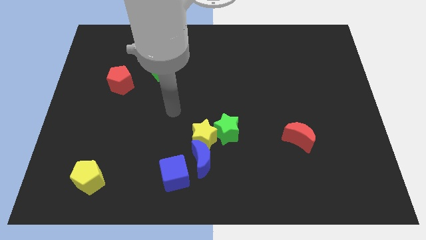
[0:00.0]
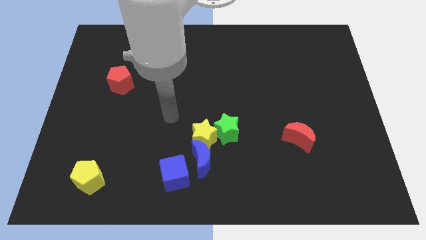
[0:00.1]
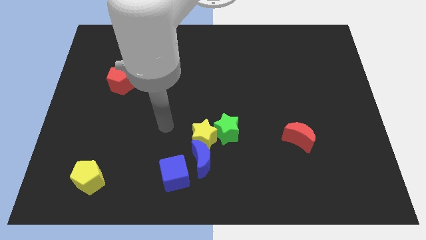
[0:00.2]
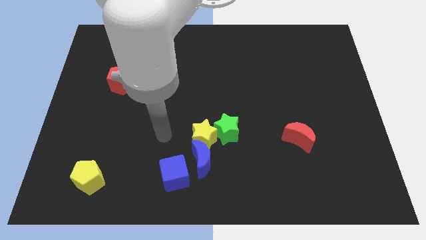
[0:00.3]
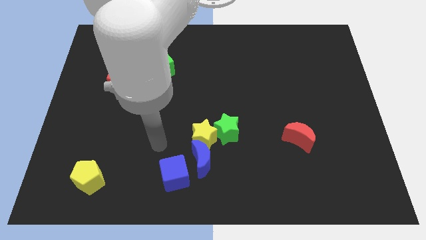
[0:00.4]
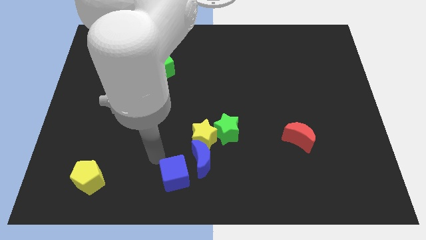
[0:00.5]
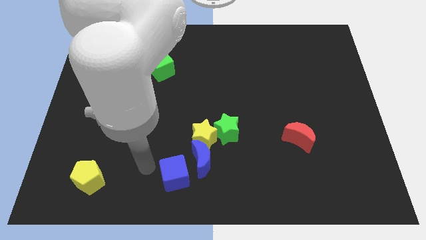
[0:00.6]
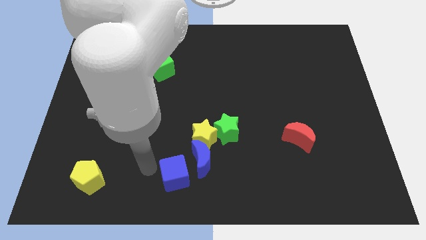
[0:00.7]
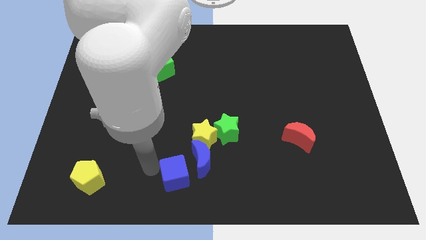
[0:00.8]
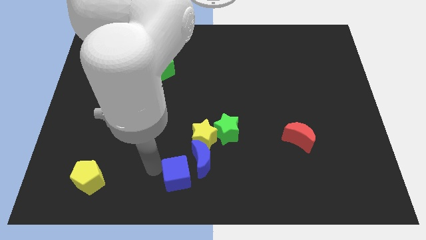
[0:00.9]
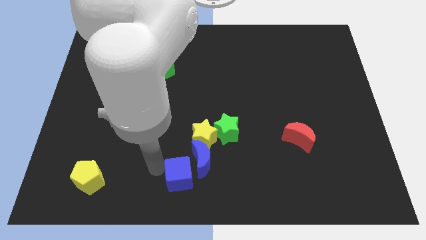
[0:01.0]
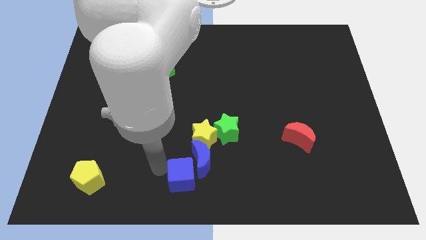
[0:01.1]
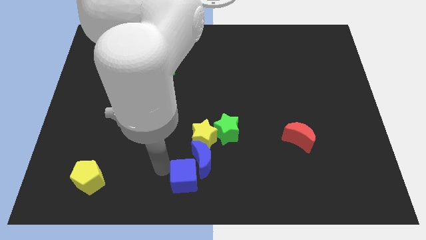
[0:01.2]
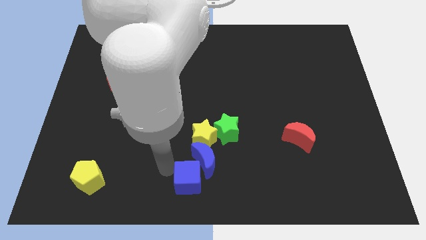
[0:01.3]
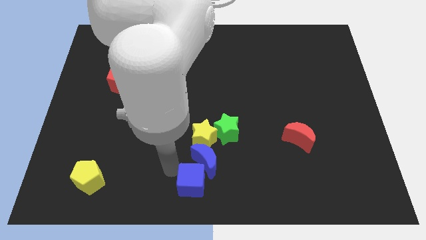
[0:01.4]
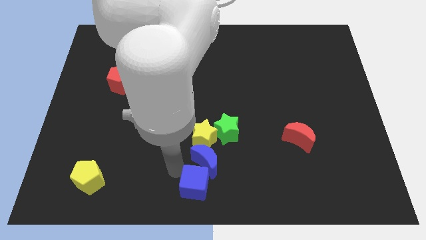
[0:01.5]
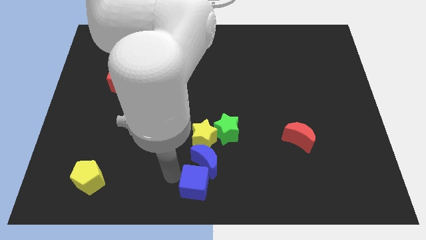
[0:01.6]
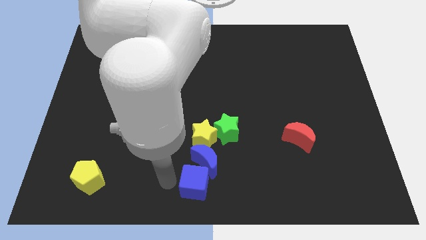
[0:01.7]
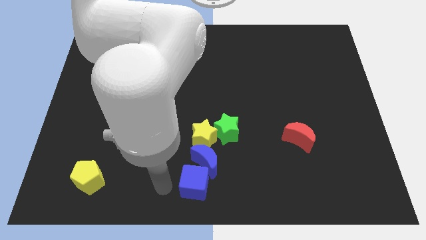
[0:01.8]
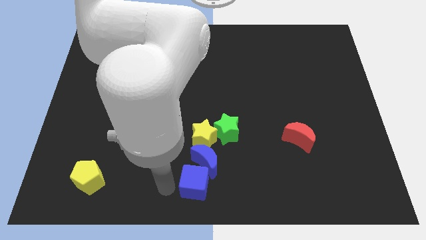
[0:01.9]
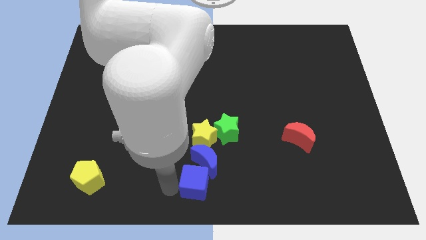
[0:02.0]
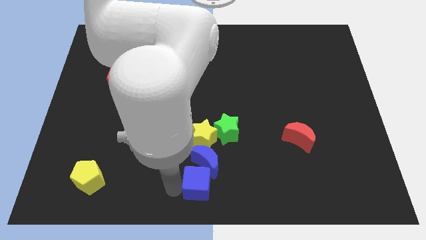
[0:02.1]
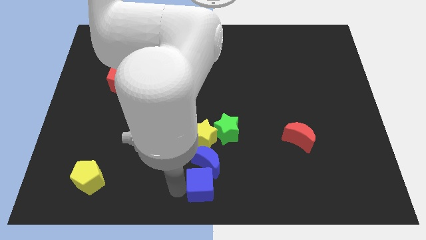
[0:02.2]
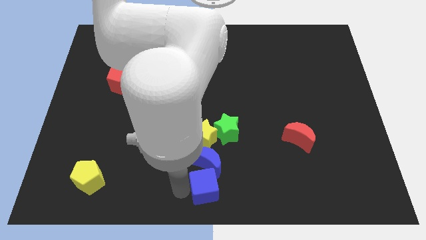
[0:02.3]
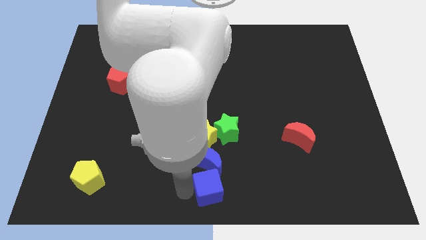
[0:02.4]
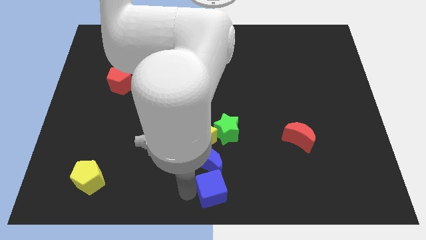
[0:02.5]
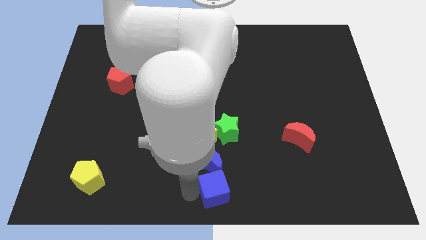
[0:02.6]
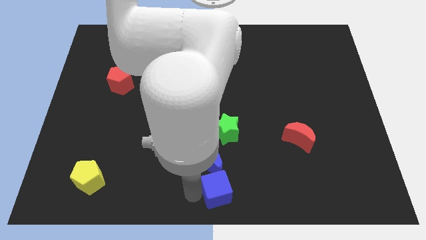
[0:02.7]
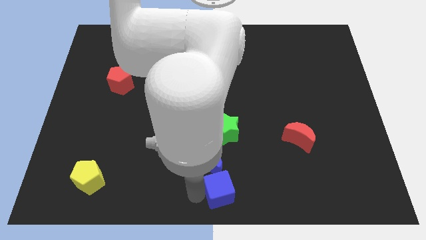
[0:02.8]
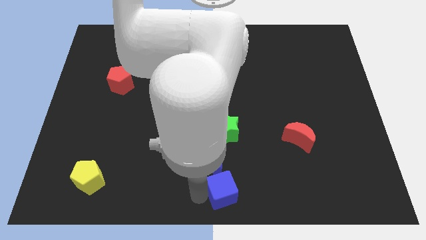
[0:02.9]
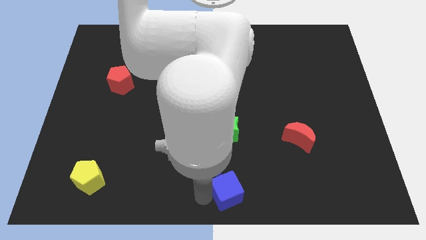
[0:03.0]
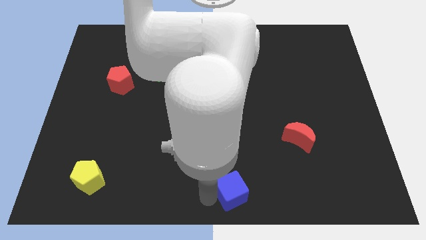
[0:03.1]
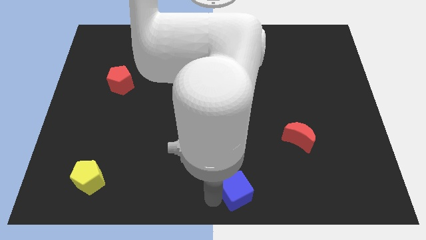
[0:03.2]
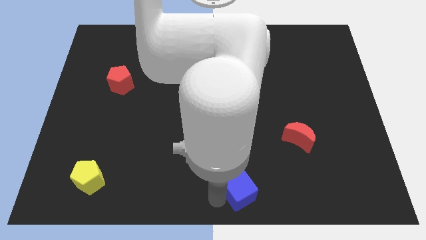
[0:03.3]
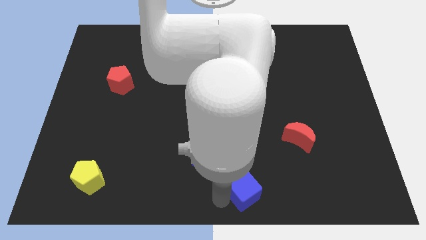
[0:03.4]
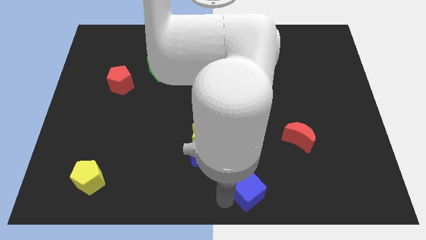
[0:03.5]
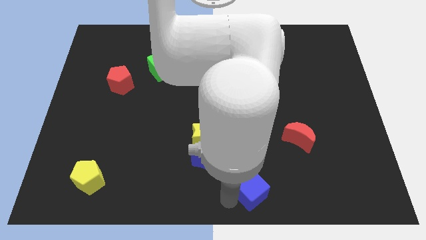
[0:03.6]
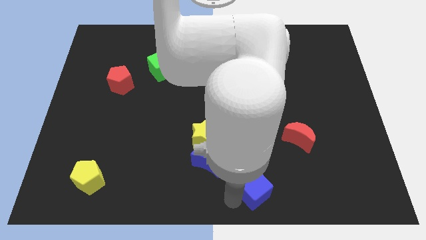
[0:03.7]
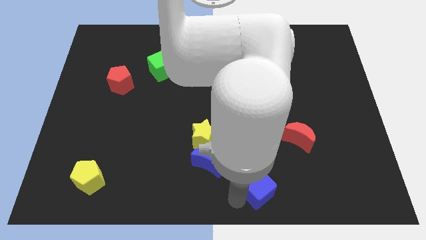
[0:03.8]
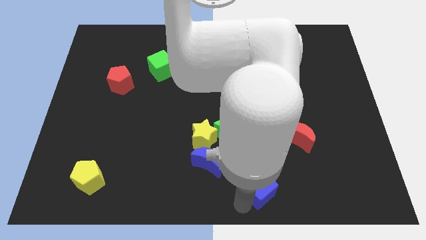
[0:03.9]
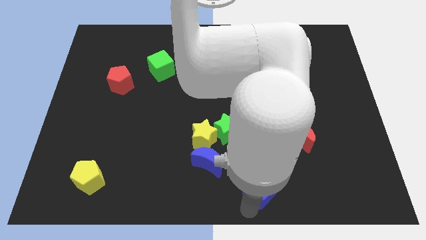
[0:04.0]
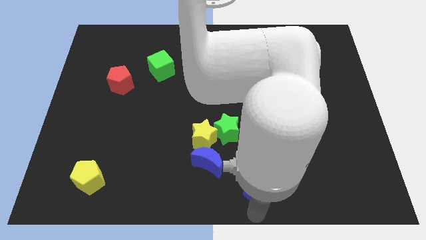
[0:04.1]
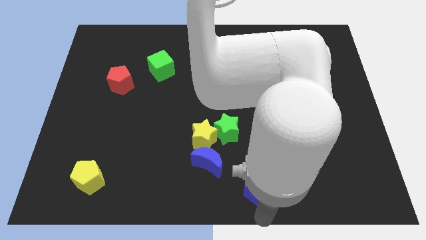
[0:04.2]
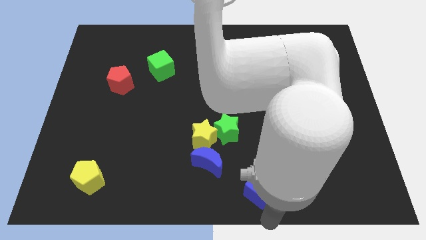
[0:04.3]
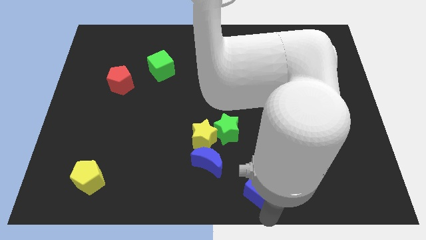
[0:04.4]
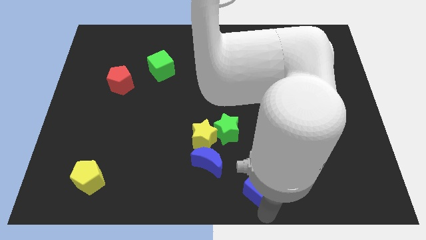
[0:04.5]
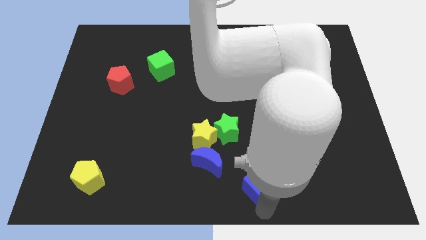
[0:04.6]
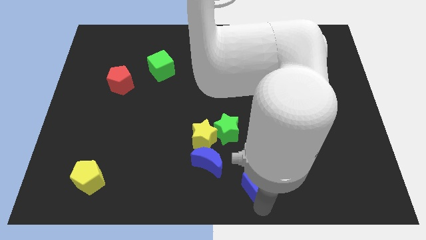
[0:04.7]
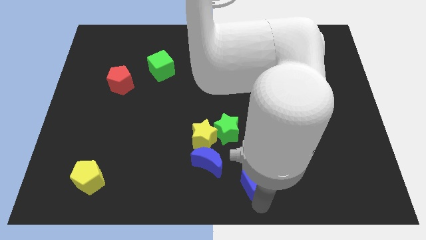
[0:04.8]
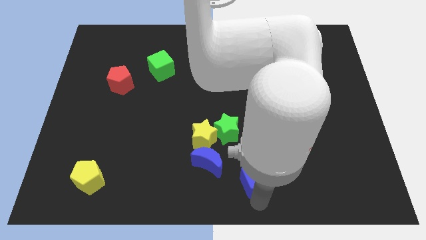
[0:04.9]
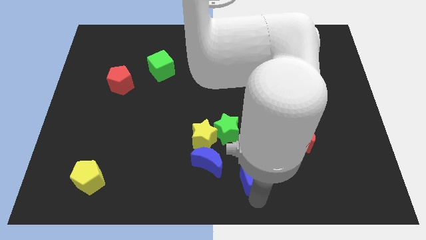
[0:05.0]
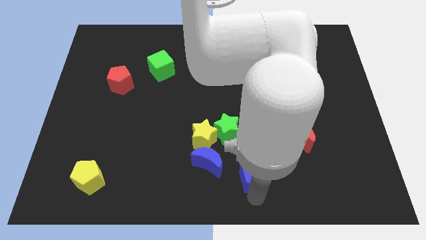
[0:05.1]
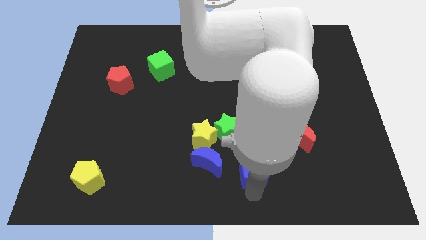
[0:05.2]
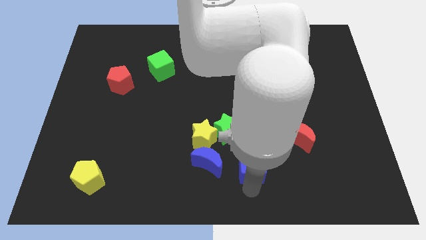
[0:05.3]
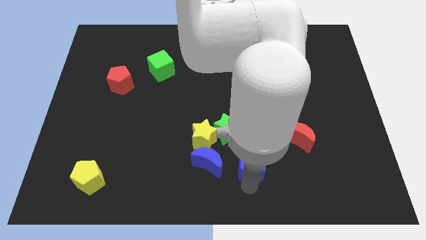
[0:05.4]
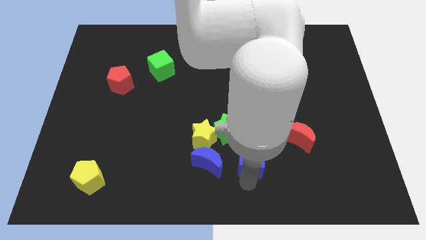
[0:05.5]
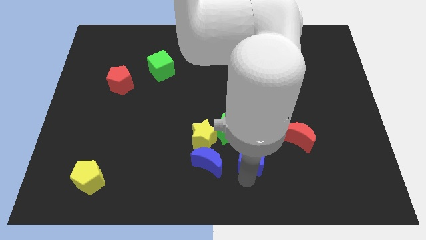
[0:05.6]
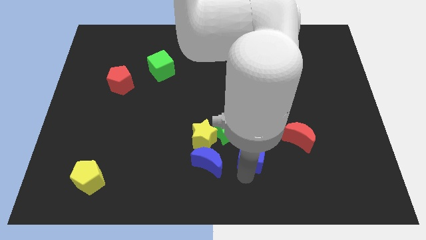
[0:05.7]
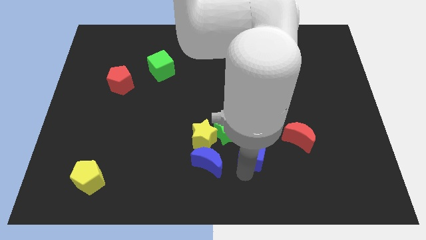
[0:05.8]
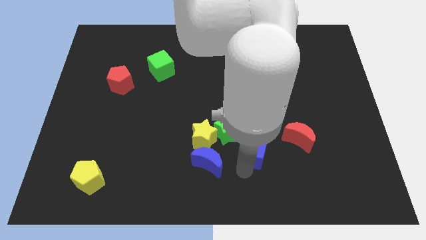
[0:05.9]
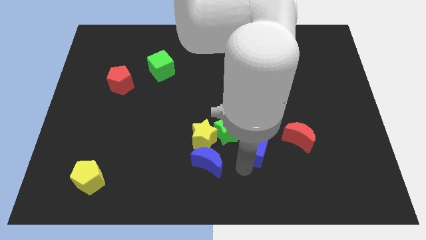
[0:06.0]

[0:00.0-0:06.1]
slide the blue cube to the right of the green star

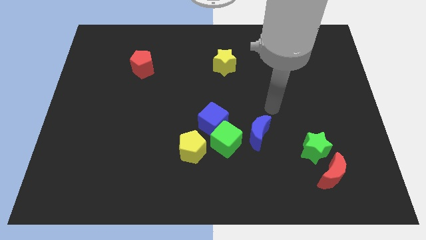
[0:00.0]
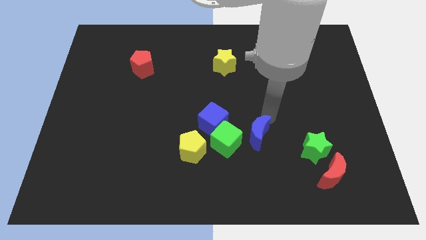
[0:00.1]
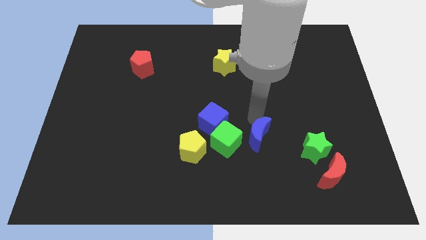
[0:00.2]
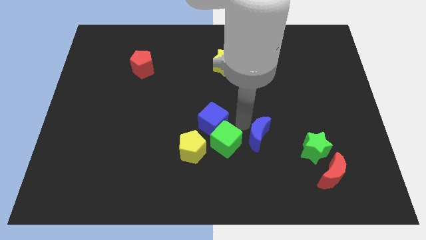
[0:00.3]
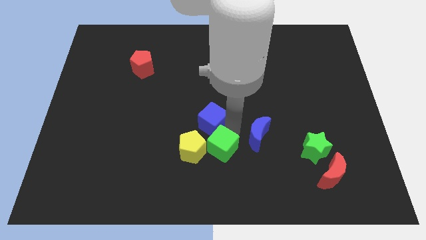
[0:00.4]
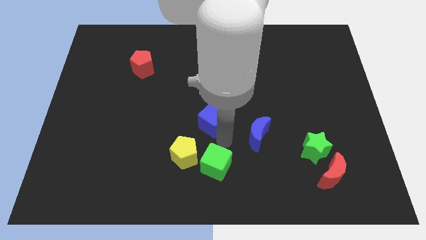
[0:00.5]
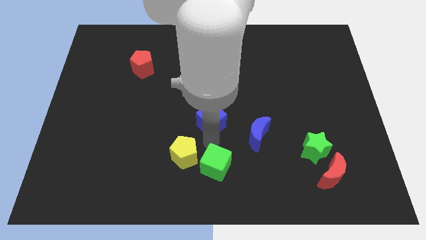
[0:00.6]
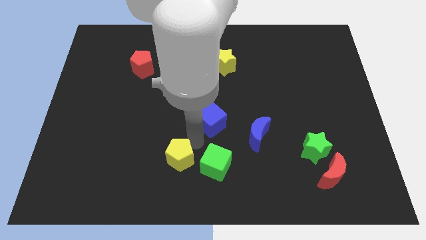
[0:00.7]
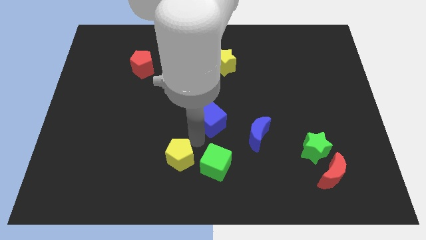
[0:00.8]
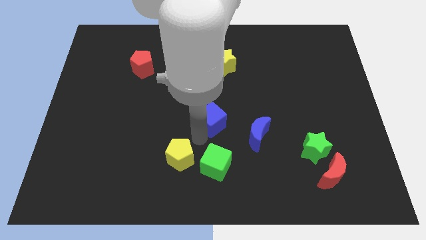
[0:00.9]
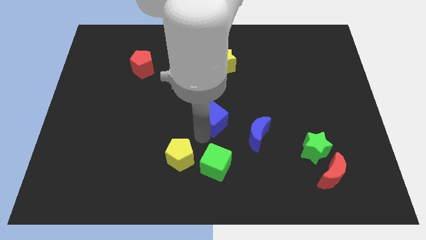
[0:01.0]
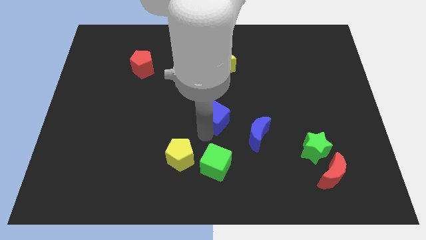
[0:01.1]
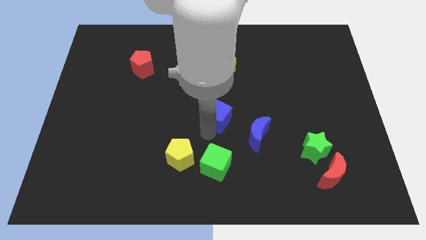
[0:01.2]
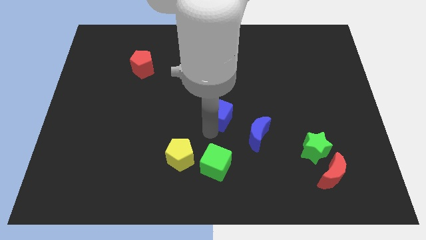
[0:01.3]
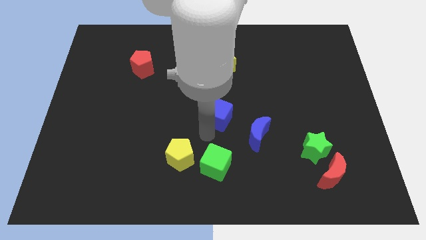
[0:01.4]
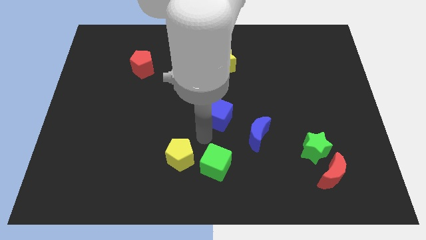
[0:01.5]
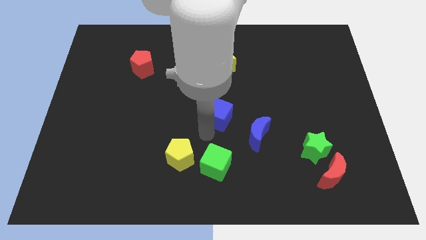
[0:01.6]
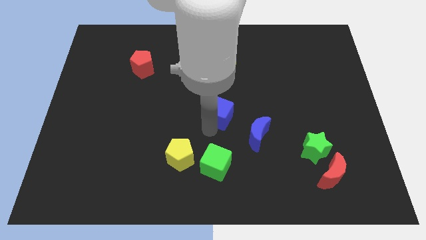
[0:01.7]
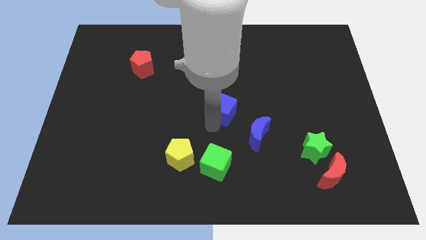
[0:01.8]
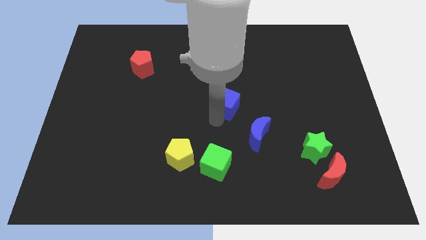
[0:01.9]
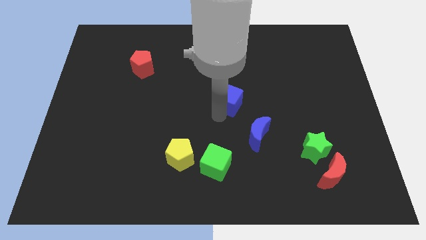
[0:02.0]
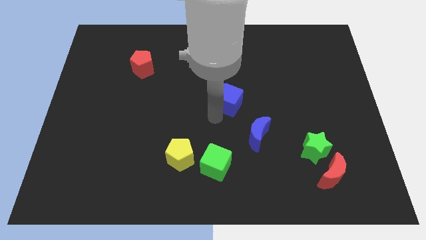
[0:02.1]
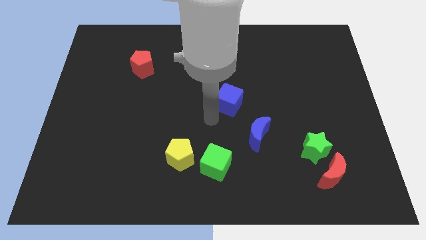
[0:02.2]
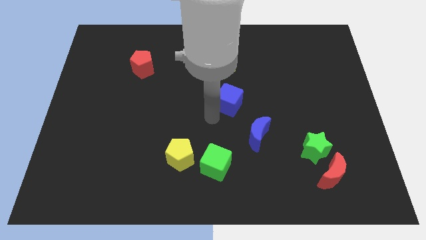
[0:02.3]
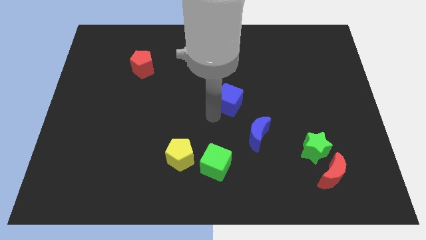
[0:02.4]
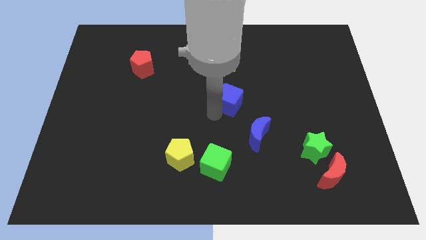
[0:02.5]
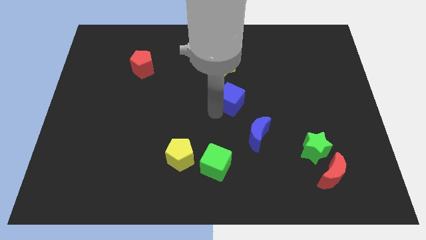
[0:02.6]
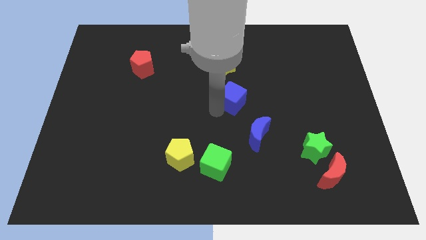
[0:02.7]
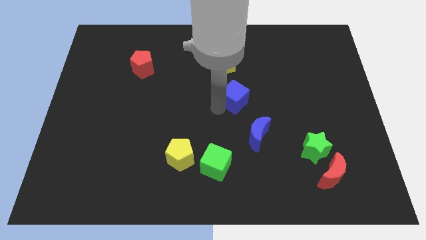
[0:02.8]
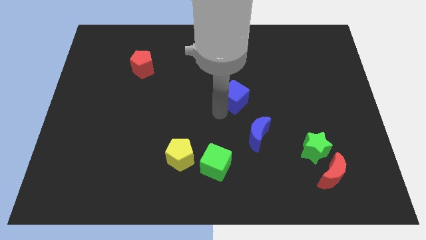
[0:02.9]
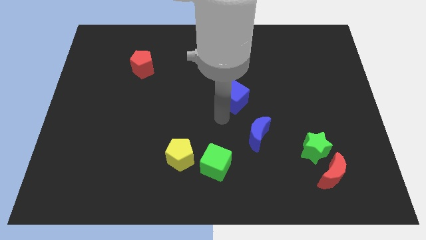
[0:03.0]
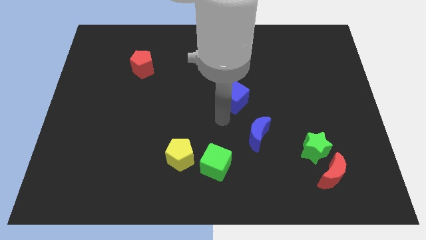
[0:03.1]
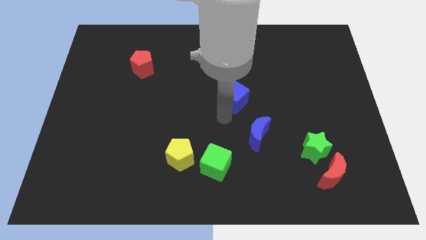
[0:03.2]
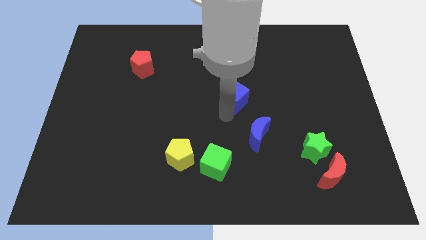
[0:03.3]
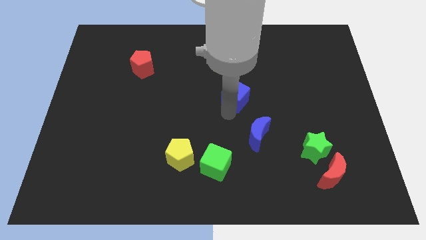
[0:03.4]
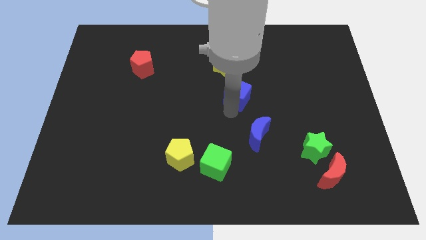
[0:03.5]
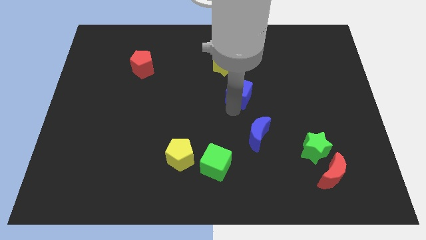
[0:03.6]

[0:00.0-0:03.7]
move the blue cube to the bottom right of the yellow star
